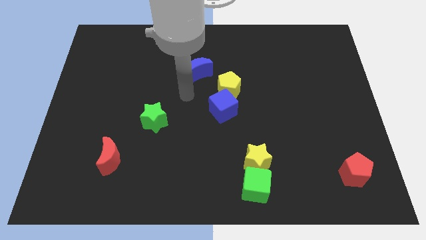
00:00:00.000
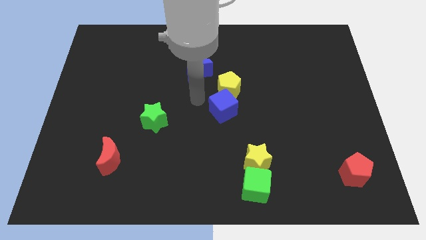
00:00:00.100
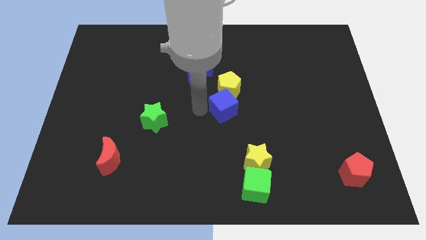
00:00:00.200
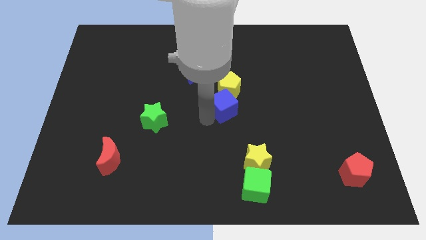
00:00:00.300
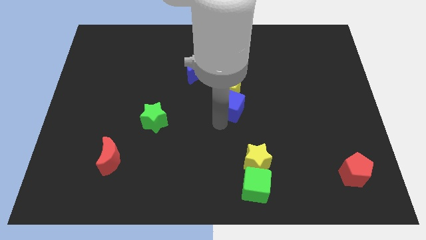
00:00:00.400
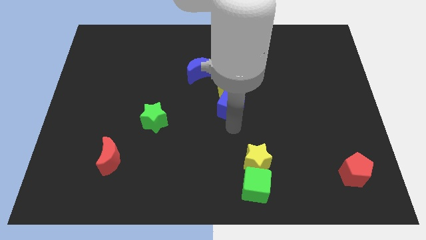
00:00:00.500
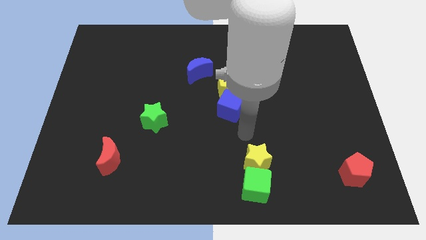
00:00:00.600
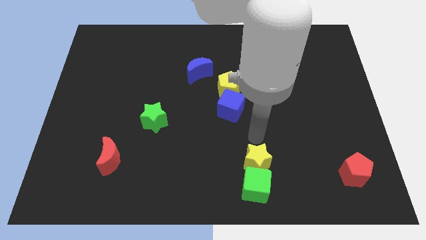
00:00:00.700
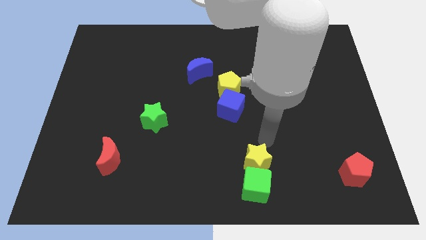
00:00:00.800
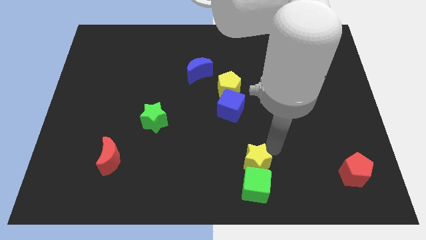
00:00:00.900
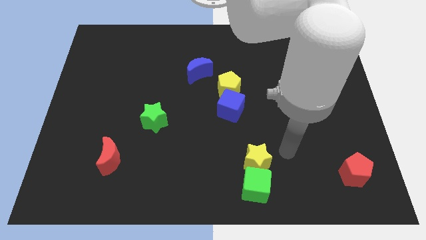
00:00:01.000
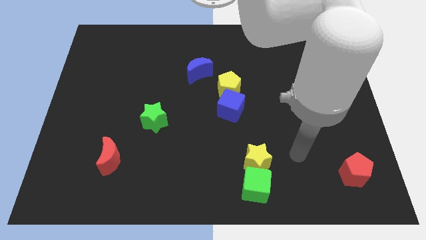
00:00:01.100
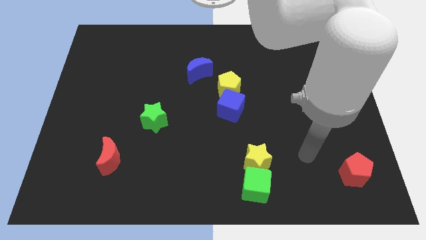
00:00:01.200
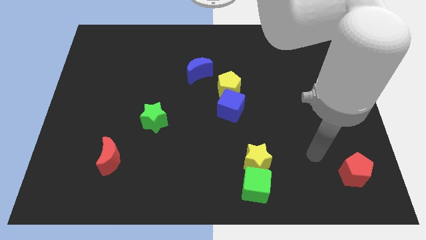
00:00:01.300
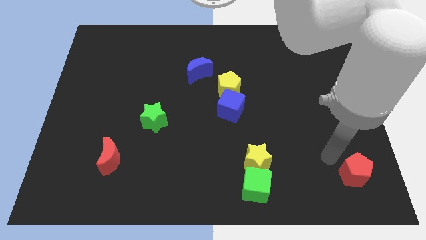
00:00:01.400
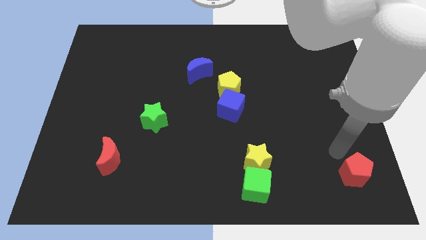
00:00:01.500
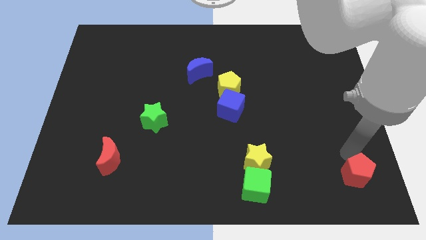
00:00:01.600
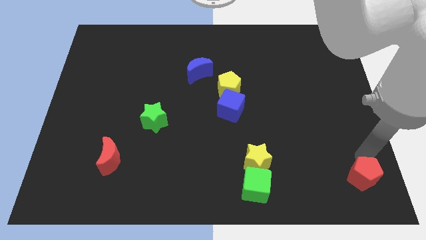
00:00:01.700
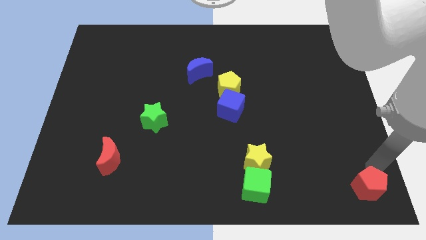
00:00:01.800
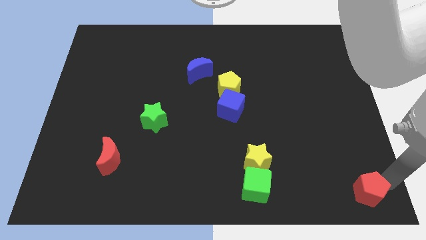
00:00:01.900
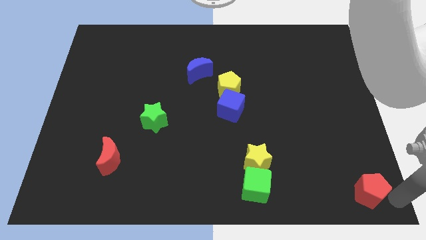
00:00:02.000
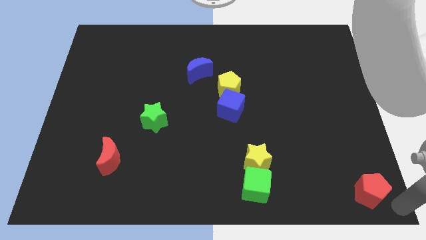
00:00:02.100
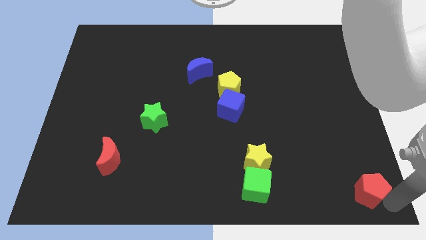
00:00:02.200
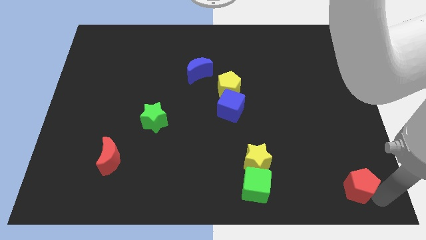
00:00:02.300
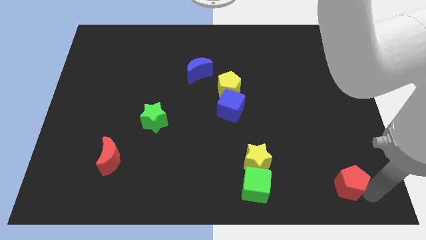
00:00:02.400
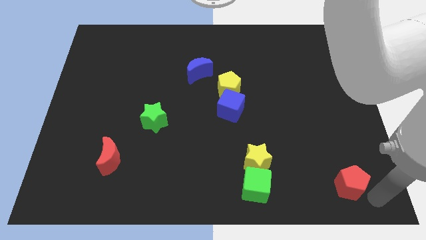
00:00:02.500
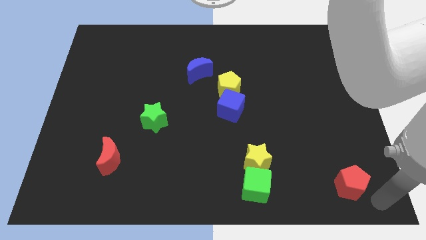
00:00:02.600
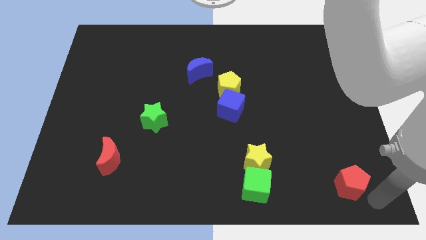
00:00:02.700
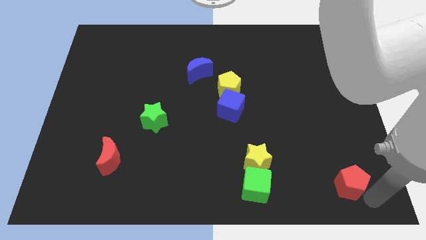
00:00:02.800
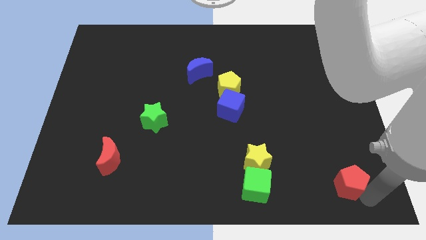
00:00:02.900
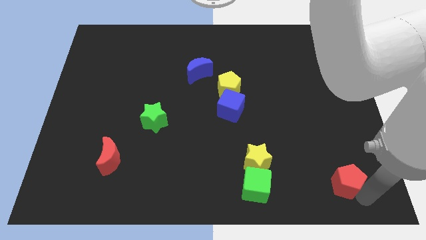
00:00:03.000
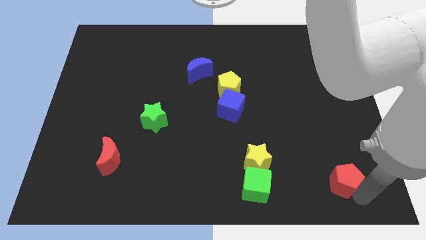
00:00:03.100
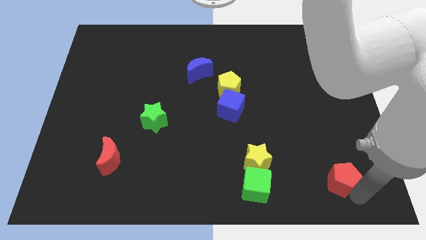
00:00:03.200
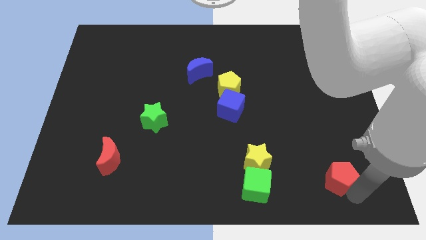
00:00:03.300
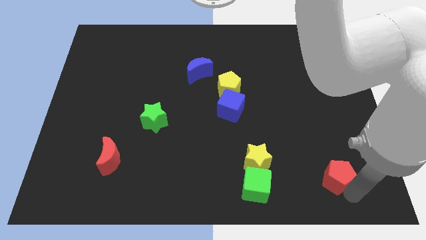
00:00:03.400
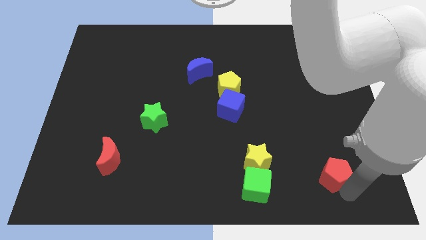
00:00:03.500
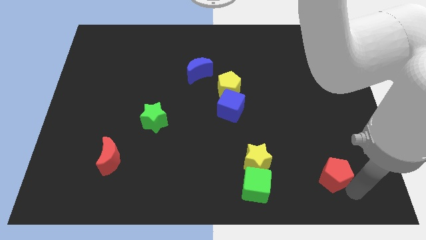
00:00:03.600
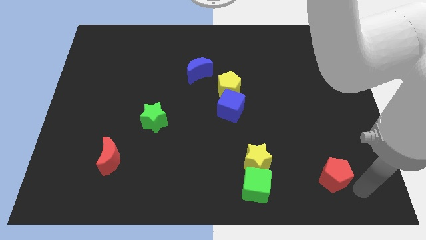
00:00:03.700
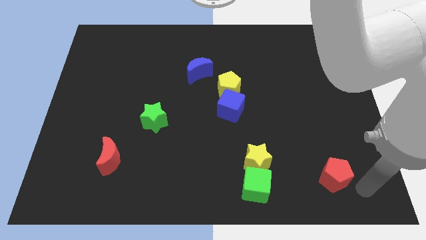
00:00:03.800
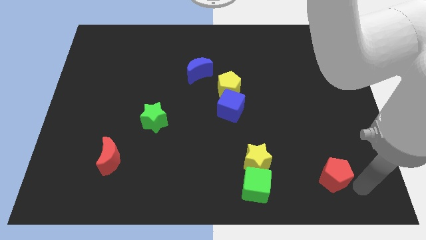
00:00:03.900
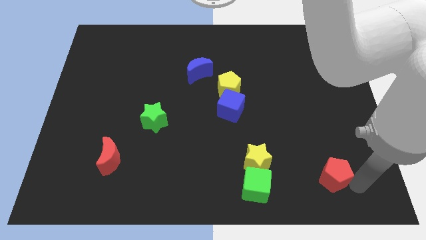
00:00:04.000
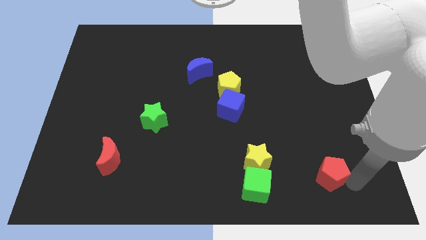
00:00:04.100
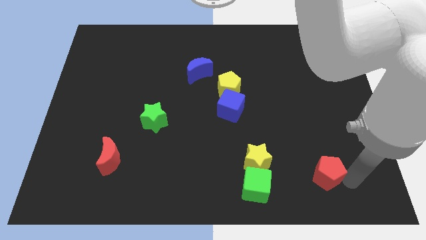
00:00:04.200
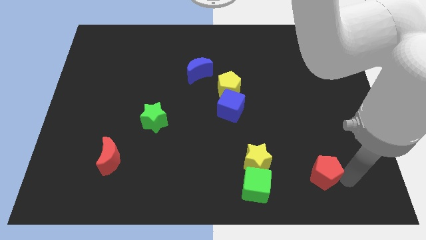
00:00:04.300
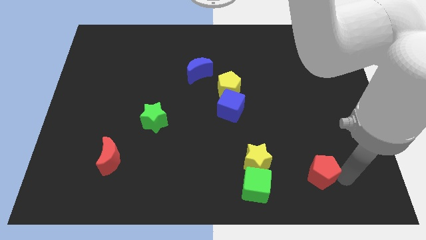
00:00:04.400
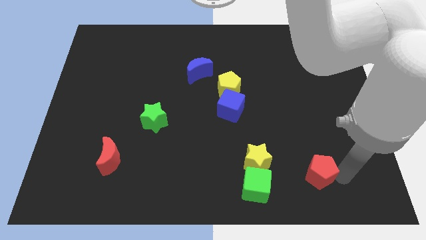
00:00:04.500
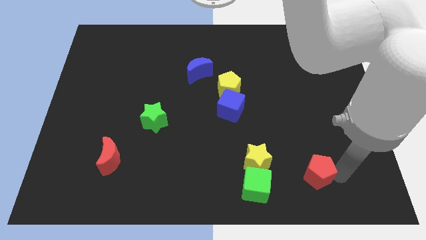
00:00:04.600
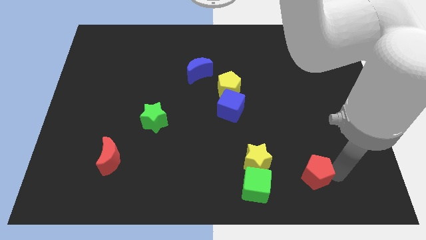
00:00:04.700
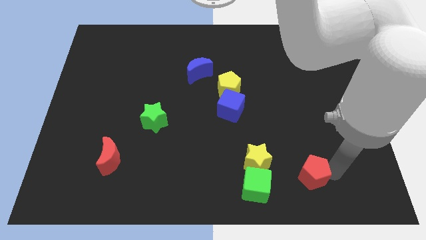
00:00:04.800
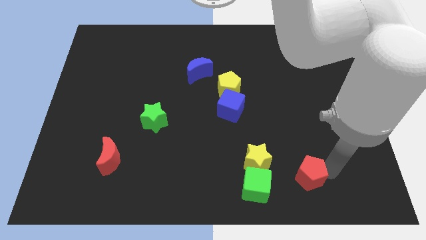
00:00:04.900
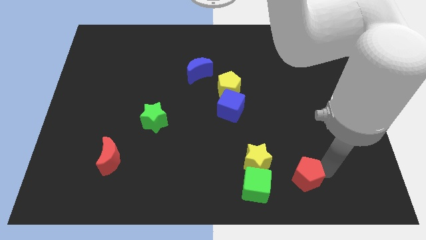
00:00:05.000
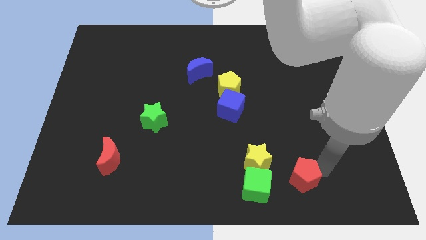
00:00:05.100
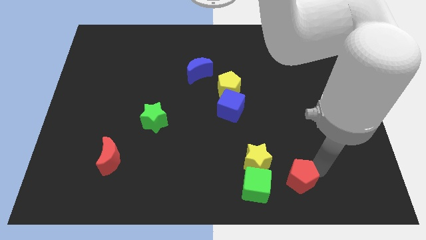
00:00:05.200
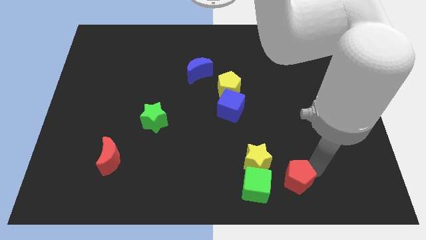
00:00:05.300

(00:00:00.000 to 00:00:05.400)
move the red pentagon to the top right of the green cube

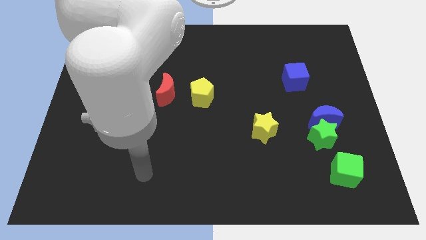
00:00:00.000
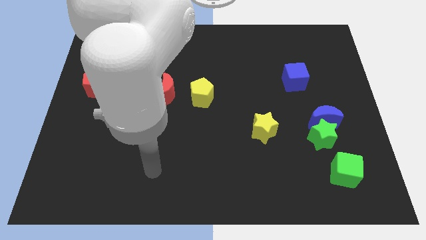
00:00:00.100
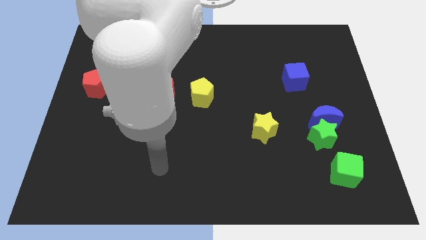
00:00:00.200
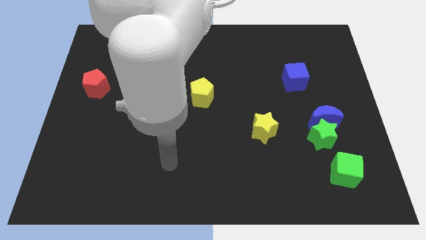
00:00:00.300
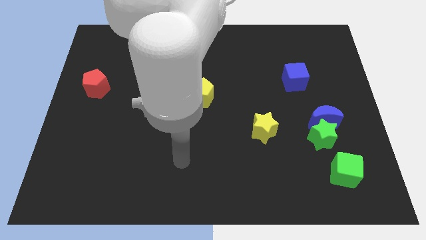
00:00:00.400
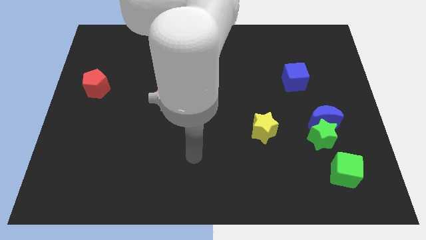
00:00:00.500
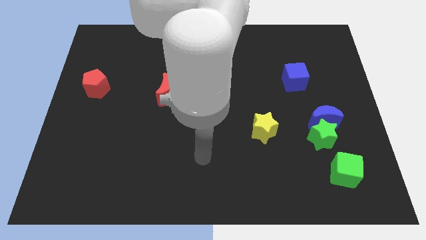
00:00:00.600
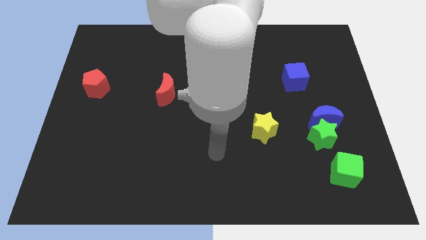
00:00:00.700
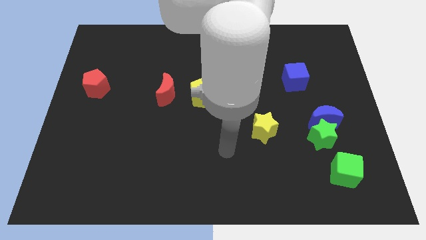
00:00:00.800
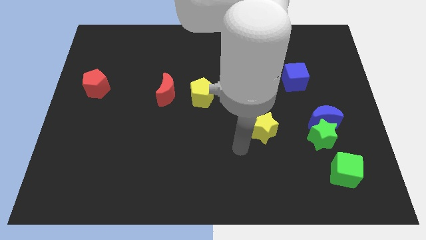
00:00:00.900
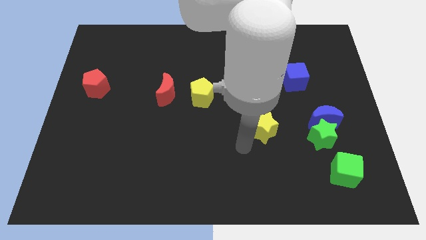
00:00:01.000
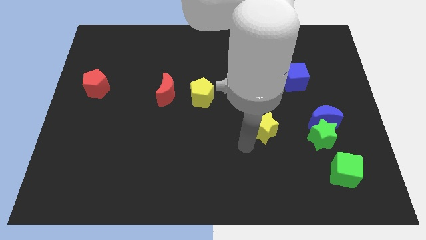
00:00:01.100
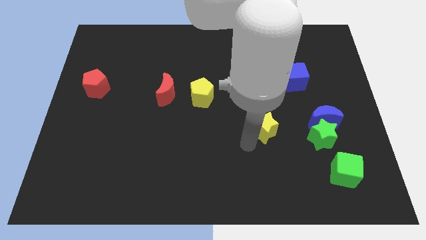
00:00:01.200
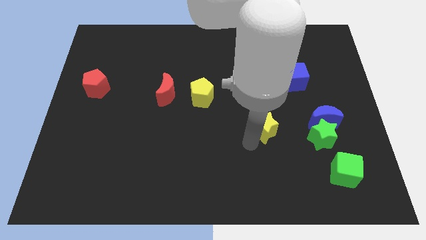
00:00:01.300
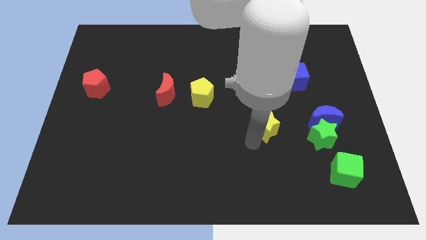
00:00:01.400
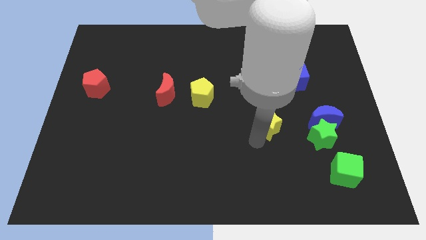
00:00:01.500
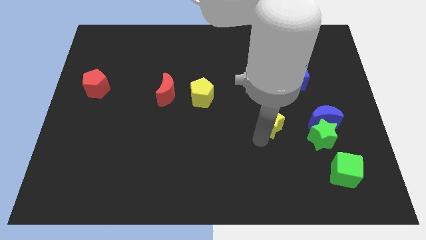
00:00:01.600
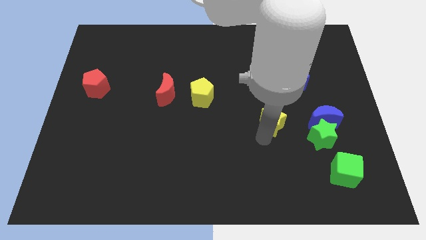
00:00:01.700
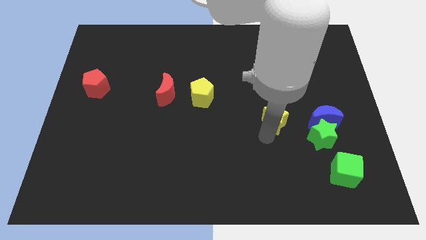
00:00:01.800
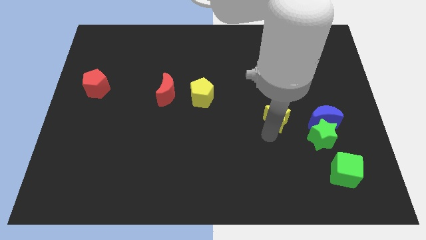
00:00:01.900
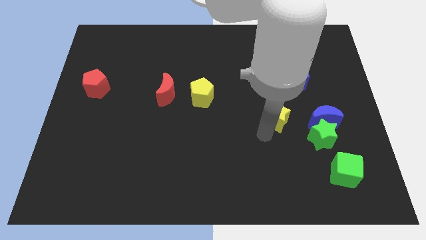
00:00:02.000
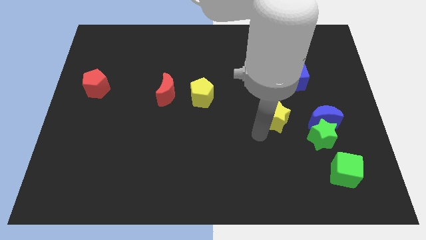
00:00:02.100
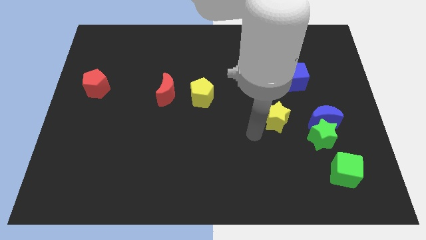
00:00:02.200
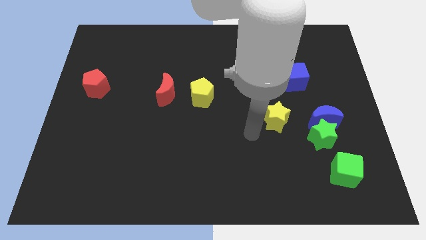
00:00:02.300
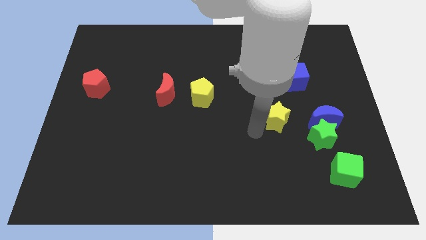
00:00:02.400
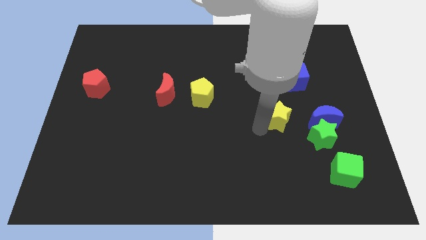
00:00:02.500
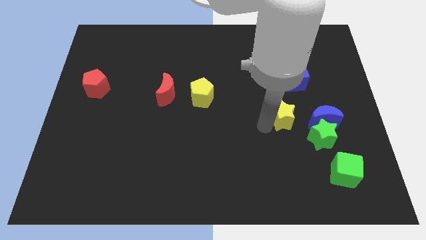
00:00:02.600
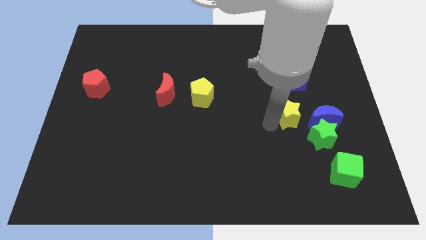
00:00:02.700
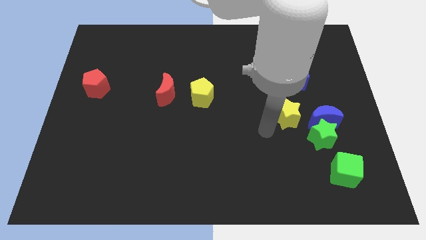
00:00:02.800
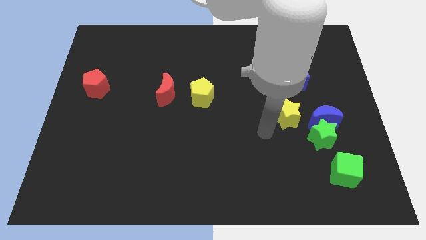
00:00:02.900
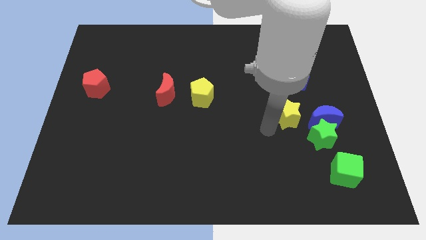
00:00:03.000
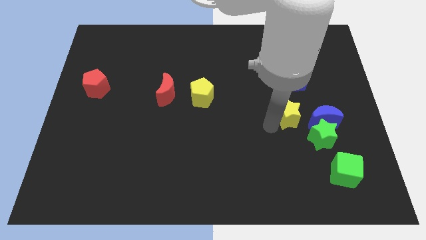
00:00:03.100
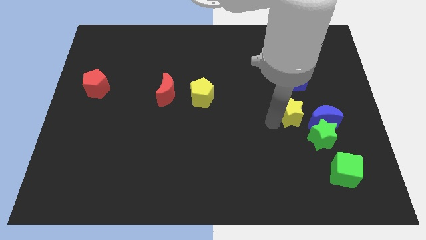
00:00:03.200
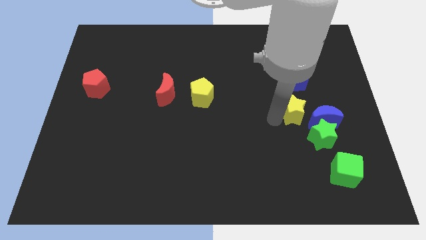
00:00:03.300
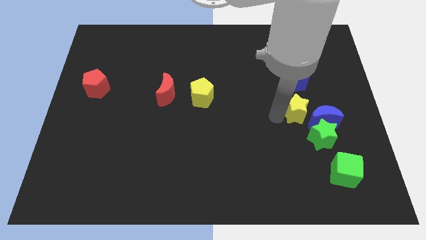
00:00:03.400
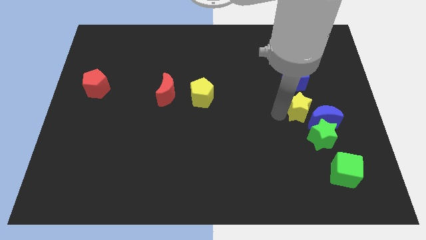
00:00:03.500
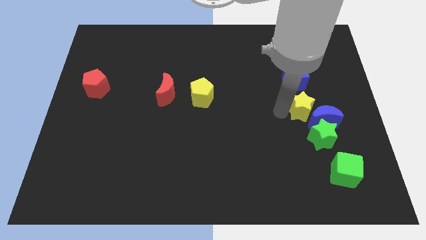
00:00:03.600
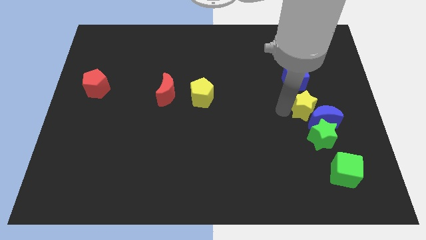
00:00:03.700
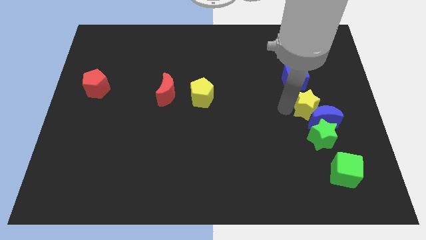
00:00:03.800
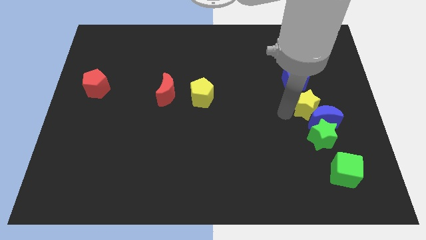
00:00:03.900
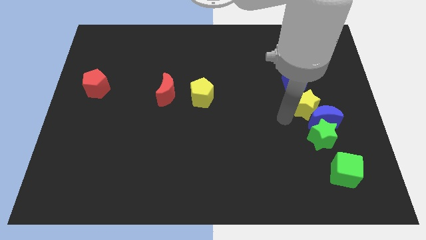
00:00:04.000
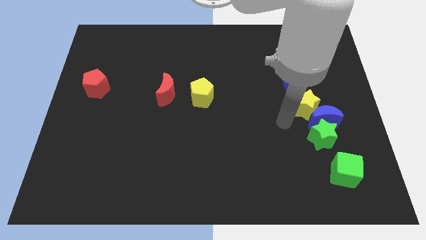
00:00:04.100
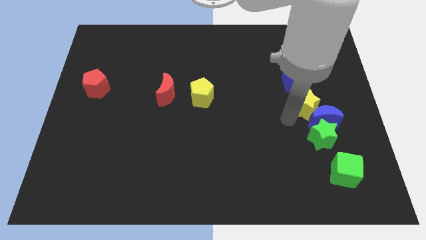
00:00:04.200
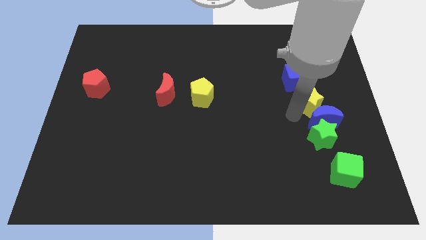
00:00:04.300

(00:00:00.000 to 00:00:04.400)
put the yellow star to the bottom right side of the blue cube
